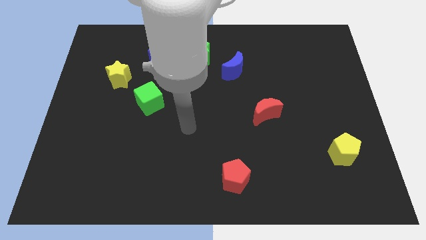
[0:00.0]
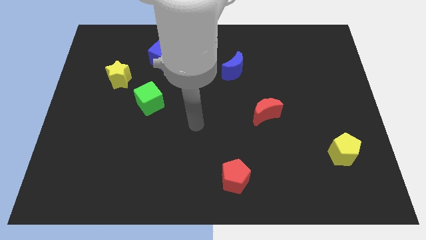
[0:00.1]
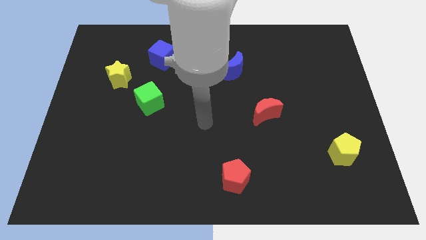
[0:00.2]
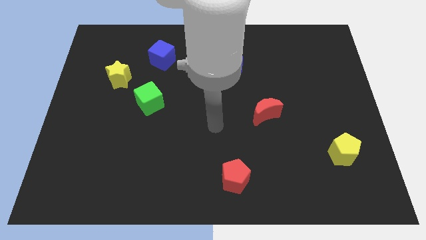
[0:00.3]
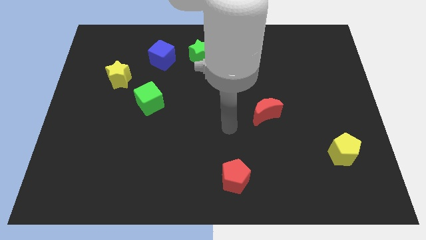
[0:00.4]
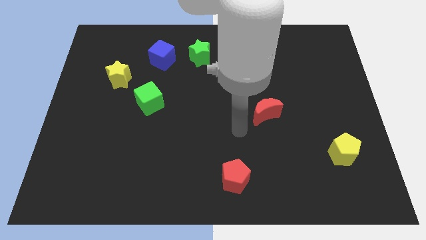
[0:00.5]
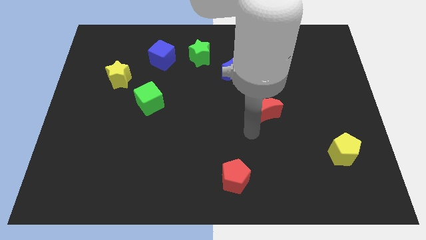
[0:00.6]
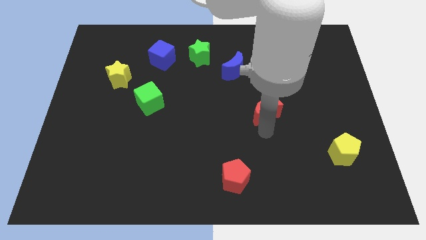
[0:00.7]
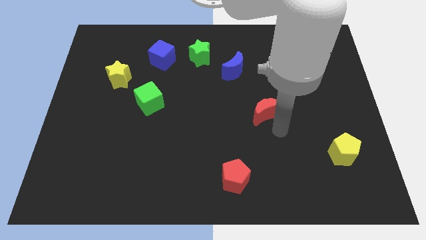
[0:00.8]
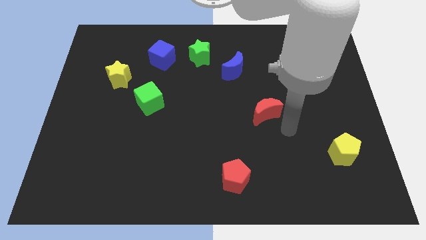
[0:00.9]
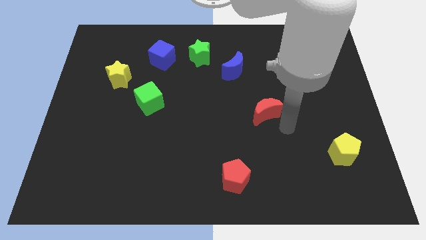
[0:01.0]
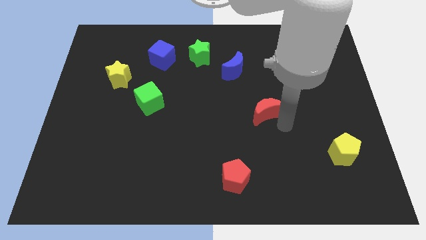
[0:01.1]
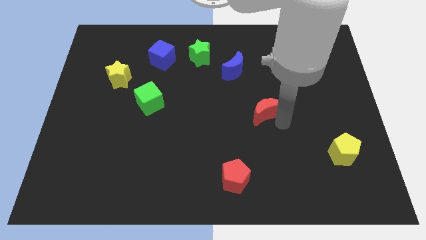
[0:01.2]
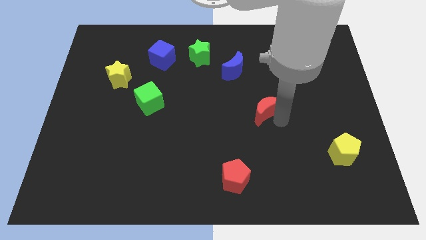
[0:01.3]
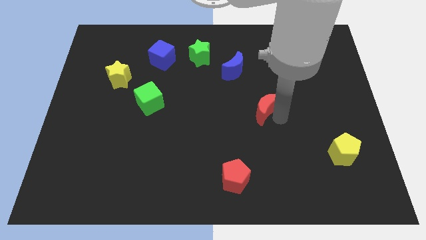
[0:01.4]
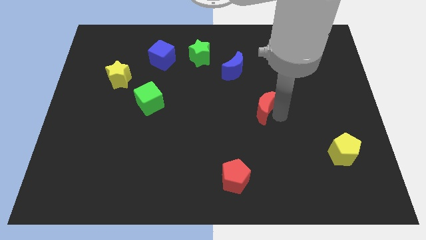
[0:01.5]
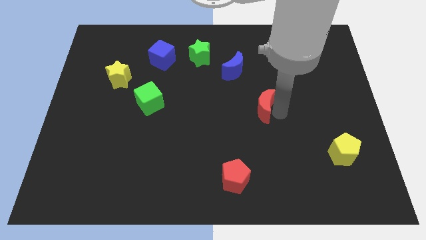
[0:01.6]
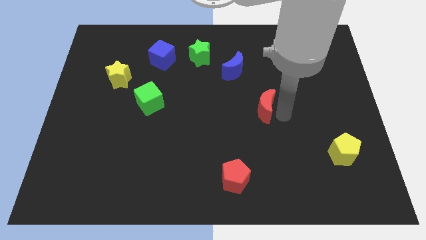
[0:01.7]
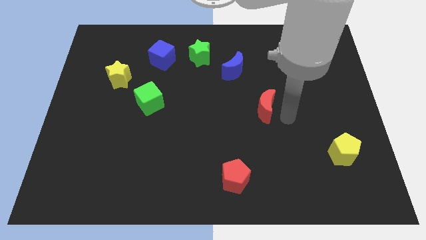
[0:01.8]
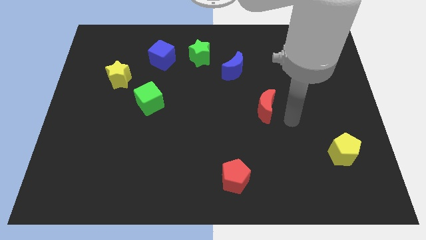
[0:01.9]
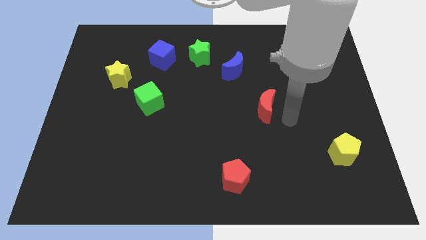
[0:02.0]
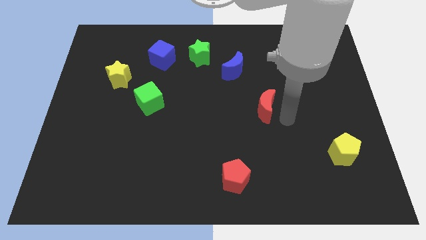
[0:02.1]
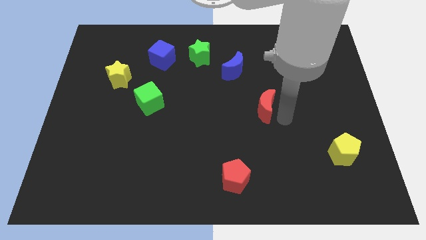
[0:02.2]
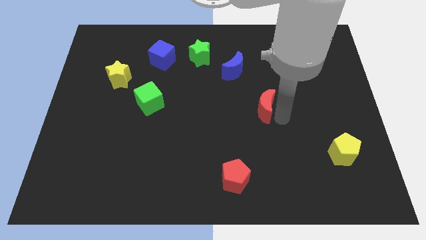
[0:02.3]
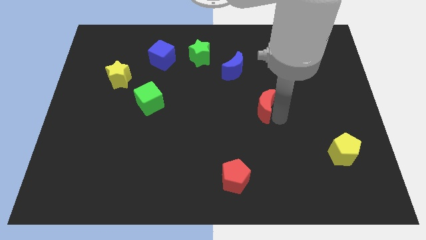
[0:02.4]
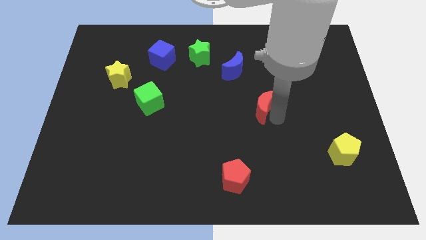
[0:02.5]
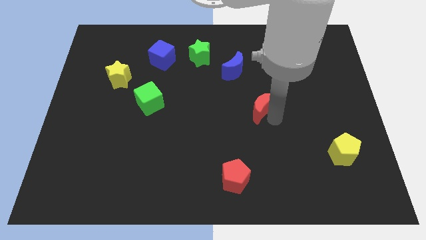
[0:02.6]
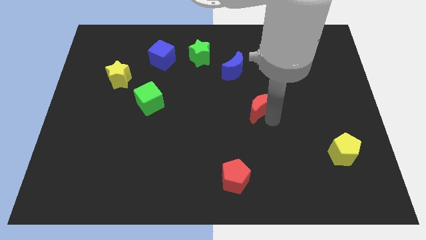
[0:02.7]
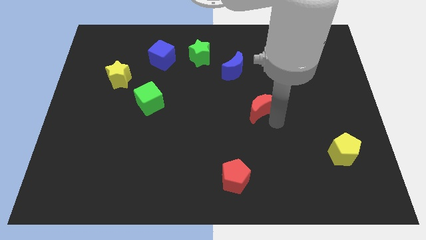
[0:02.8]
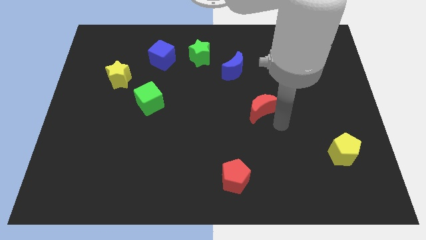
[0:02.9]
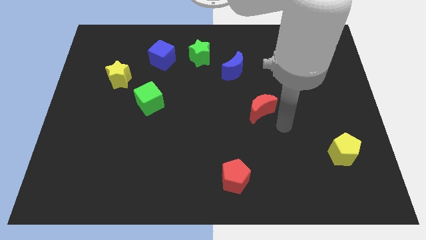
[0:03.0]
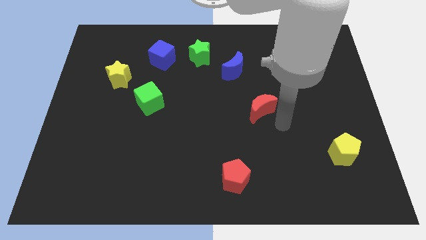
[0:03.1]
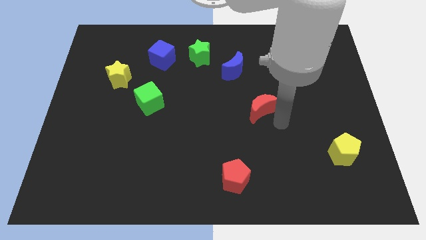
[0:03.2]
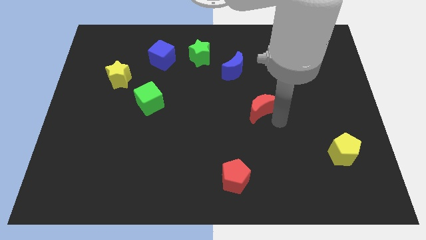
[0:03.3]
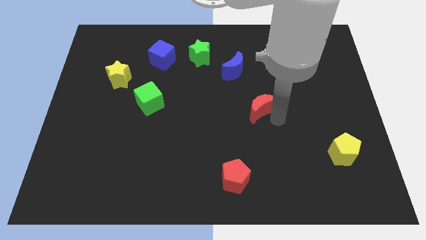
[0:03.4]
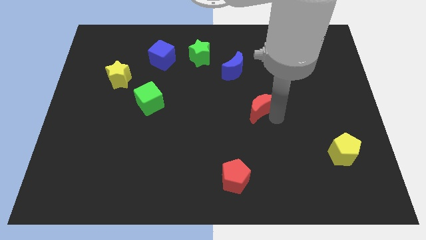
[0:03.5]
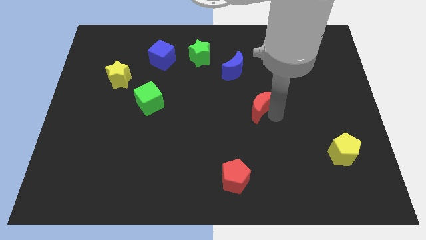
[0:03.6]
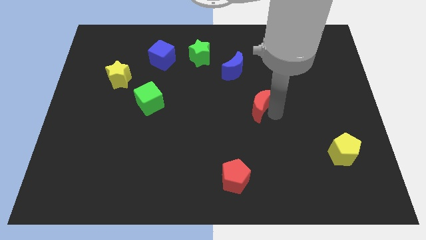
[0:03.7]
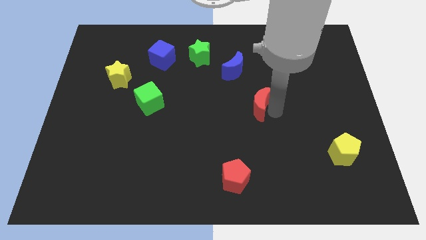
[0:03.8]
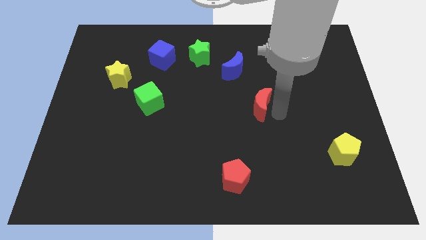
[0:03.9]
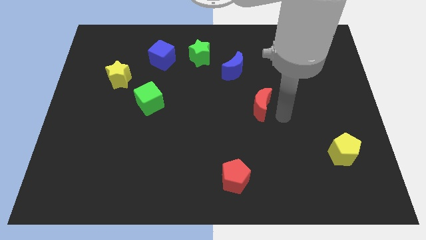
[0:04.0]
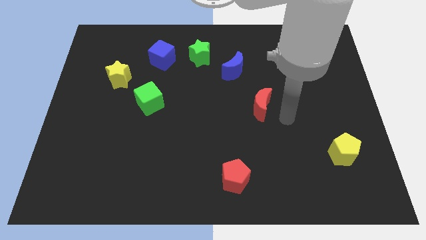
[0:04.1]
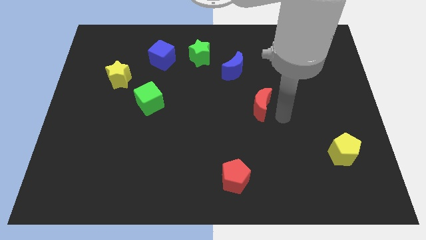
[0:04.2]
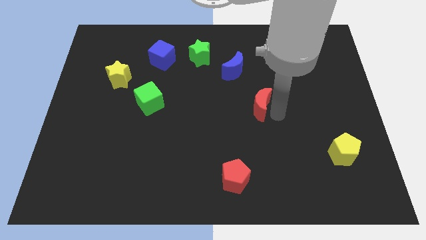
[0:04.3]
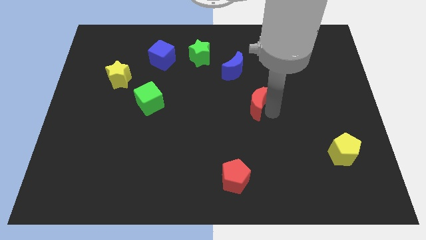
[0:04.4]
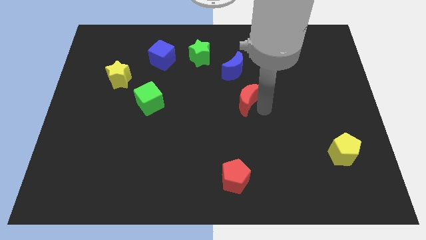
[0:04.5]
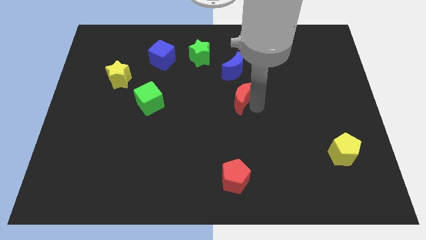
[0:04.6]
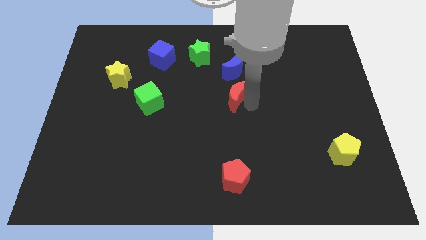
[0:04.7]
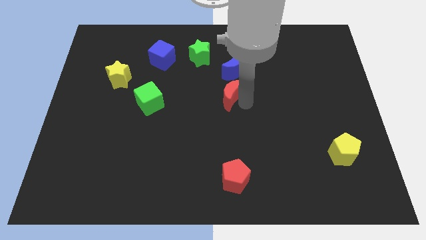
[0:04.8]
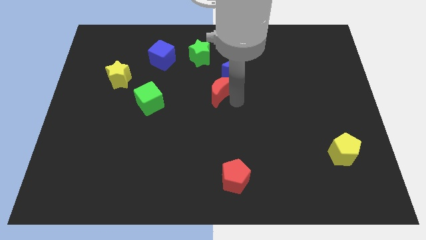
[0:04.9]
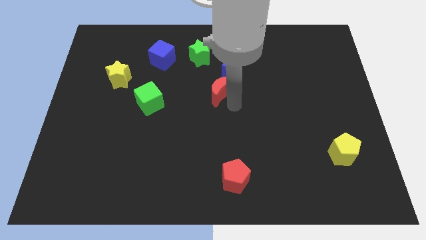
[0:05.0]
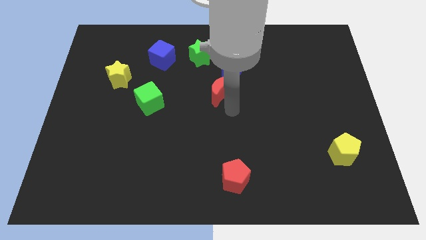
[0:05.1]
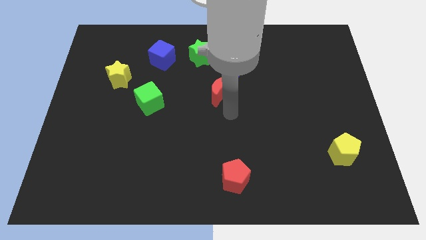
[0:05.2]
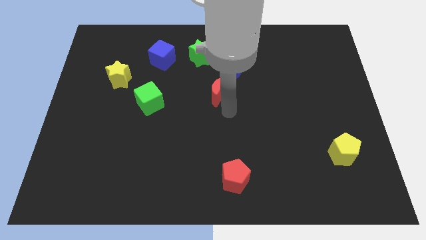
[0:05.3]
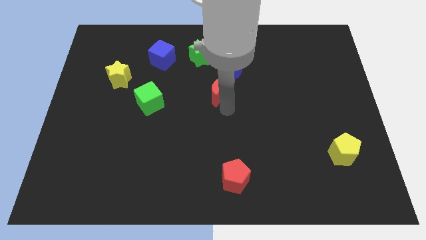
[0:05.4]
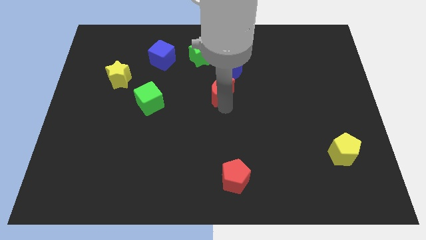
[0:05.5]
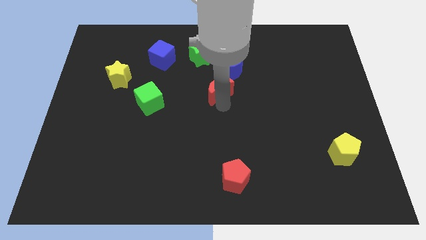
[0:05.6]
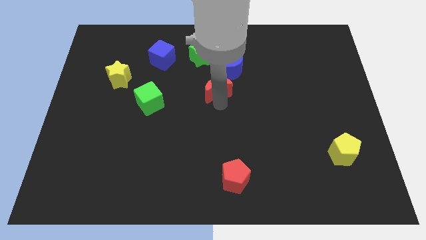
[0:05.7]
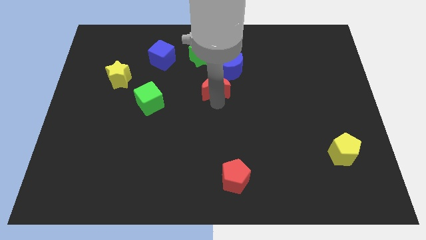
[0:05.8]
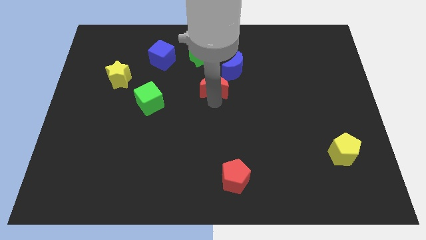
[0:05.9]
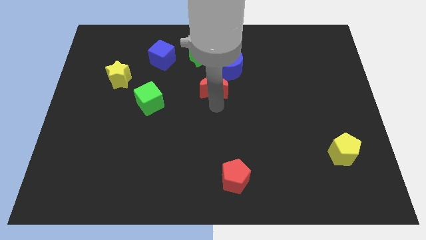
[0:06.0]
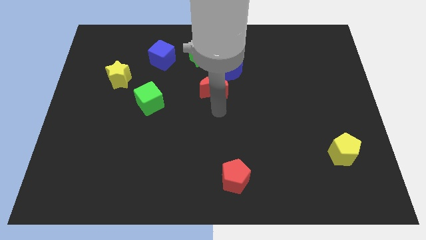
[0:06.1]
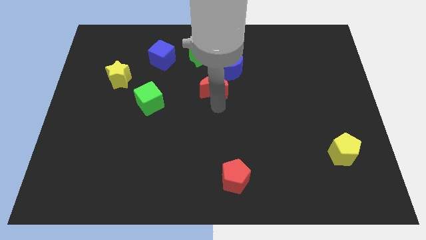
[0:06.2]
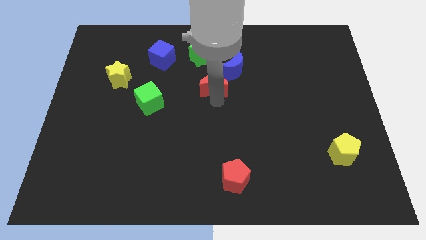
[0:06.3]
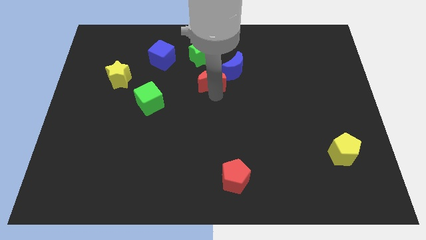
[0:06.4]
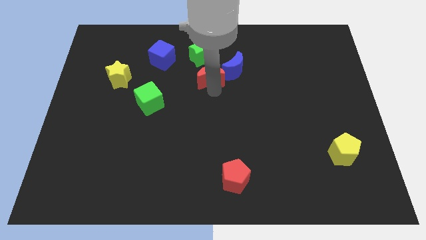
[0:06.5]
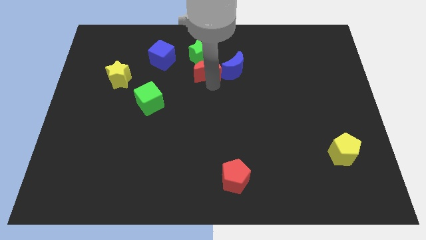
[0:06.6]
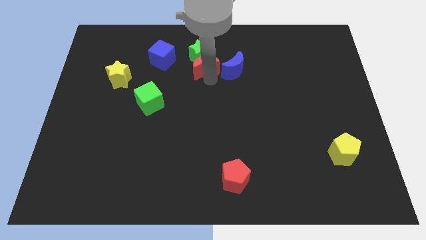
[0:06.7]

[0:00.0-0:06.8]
put the red moon to the green star
